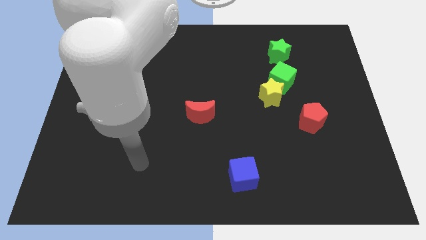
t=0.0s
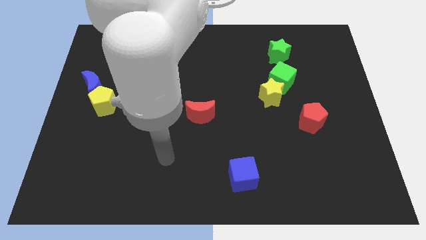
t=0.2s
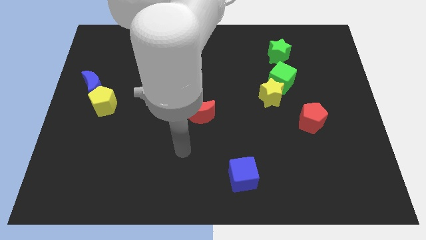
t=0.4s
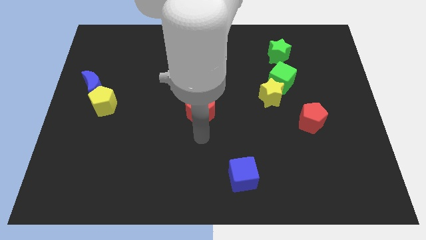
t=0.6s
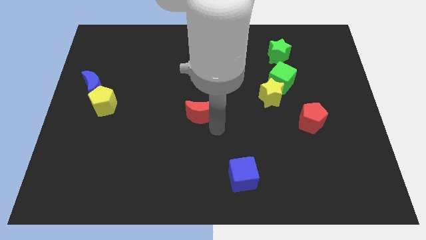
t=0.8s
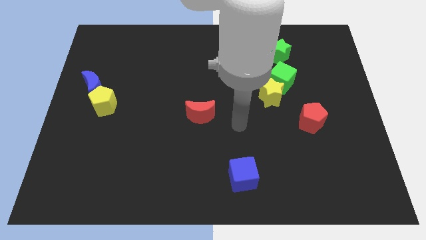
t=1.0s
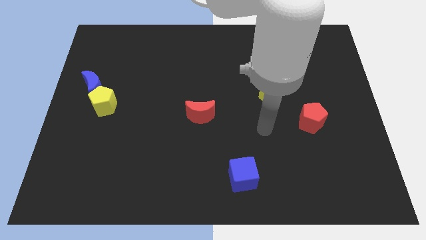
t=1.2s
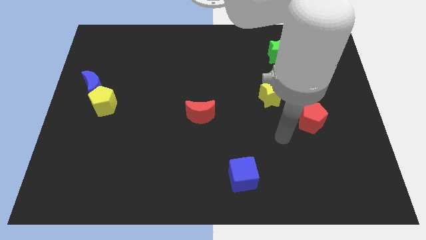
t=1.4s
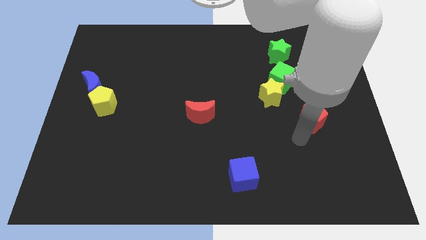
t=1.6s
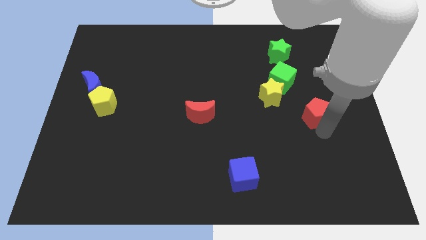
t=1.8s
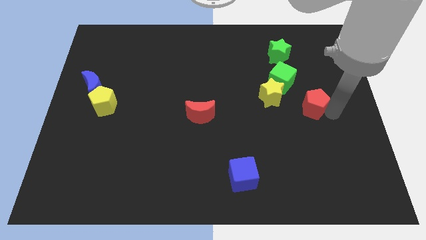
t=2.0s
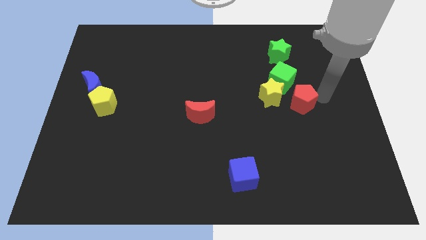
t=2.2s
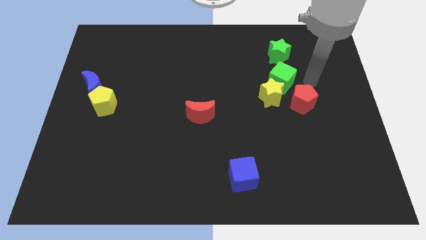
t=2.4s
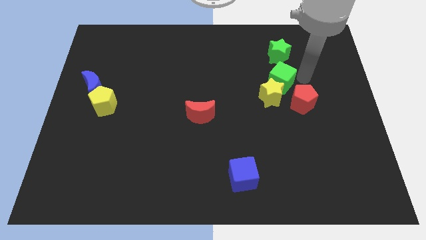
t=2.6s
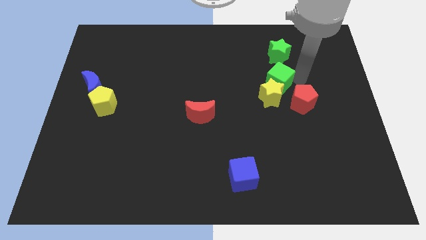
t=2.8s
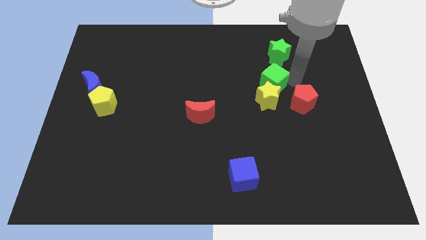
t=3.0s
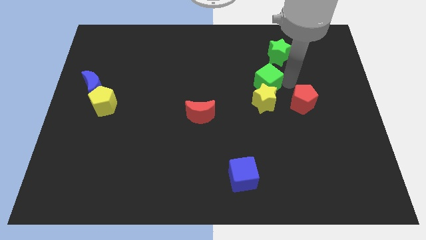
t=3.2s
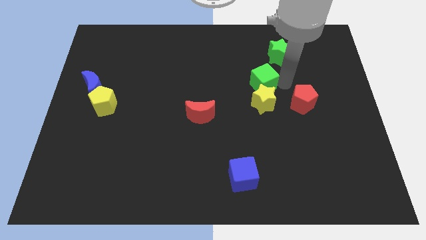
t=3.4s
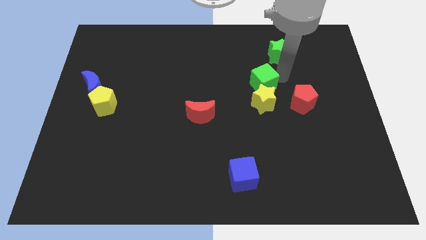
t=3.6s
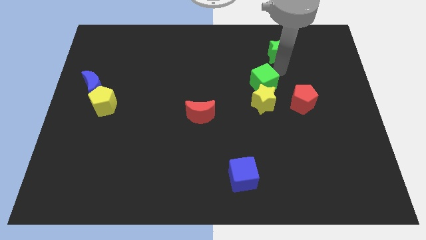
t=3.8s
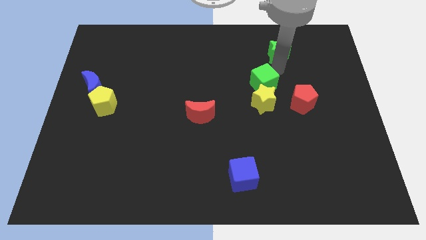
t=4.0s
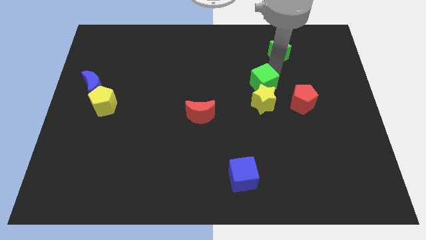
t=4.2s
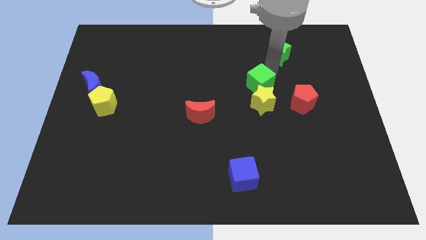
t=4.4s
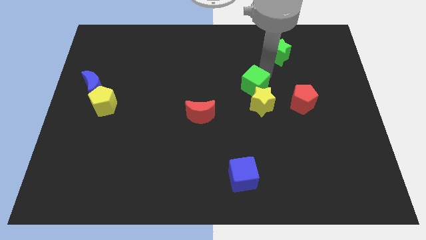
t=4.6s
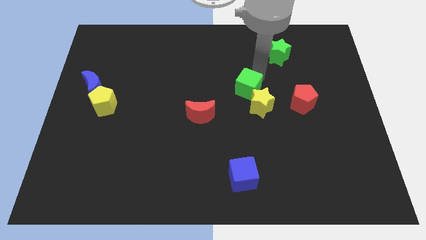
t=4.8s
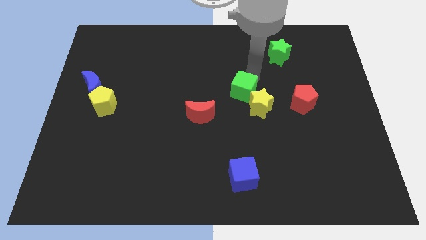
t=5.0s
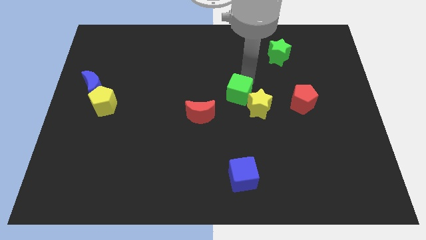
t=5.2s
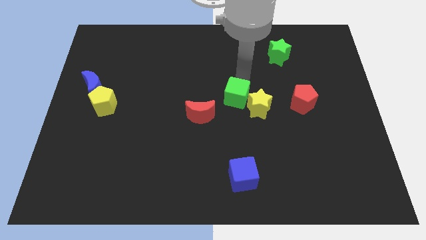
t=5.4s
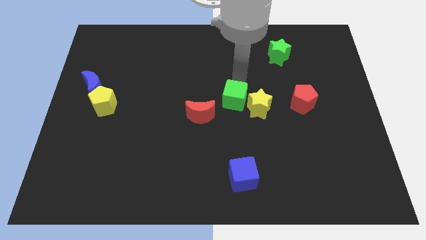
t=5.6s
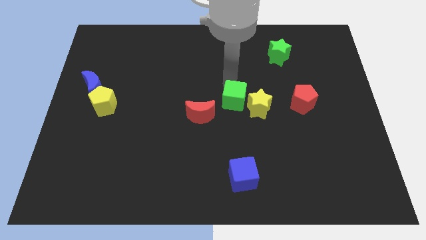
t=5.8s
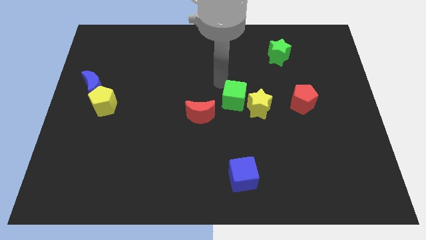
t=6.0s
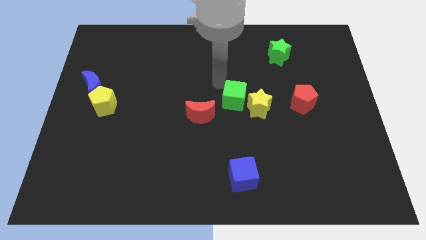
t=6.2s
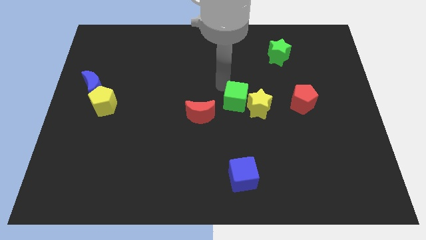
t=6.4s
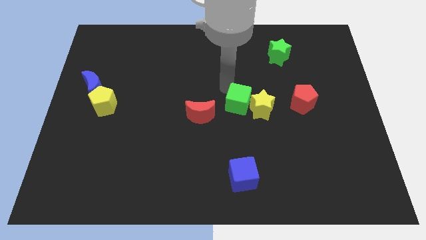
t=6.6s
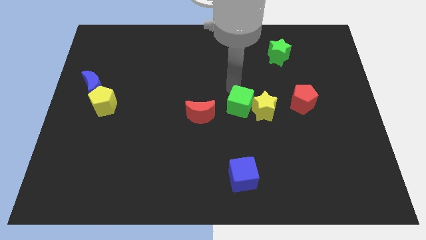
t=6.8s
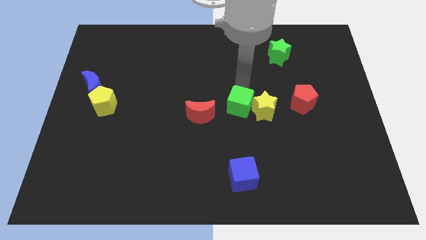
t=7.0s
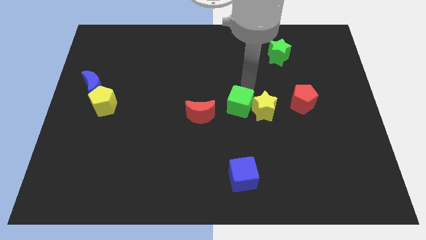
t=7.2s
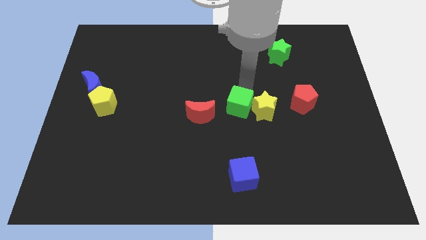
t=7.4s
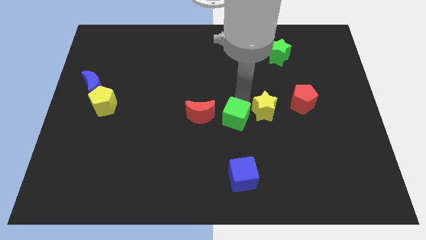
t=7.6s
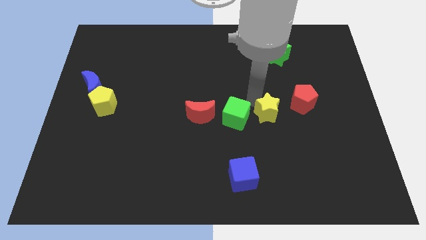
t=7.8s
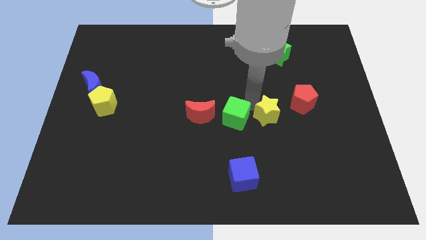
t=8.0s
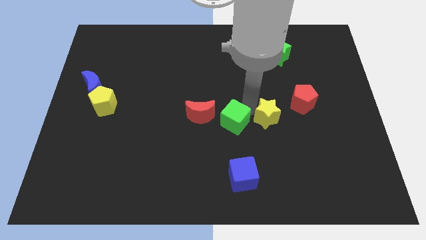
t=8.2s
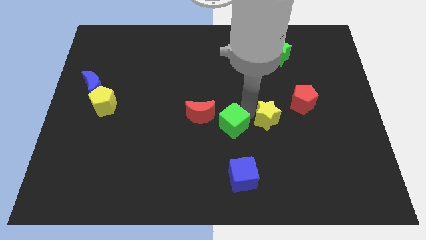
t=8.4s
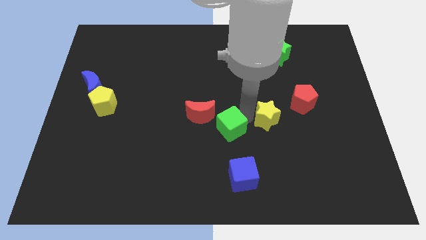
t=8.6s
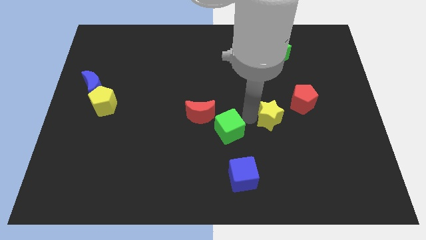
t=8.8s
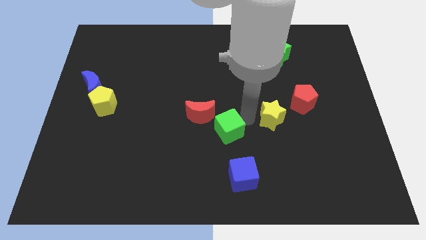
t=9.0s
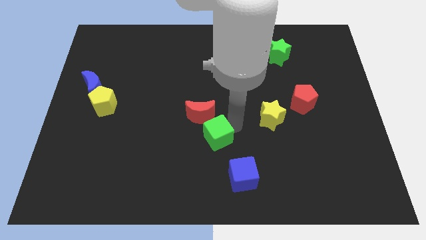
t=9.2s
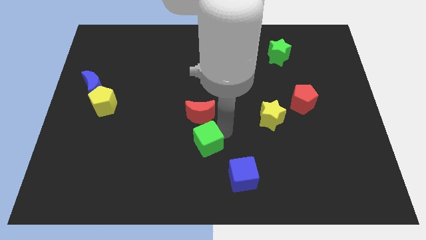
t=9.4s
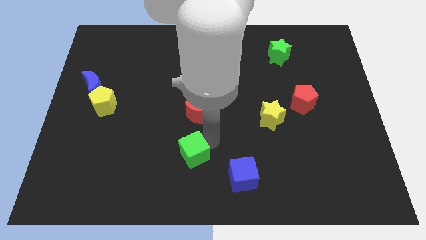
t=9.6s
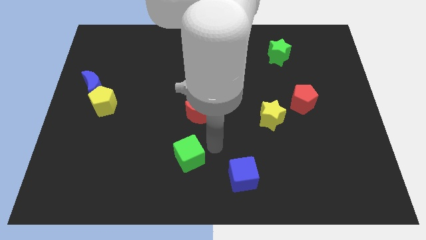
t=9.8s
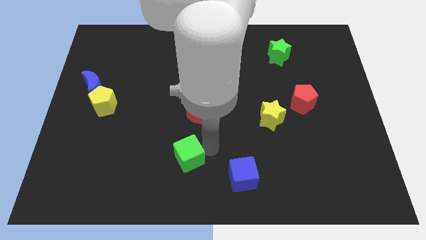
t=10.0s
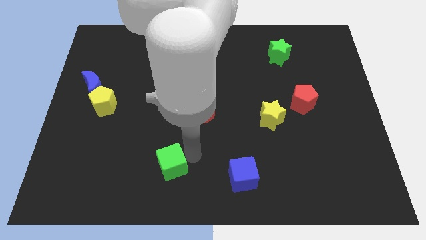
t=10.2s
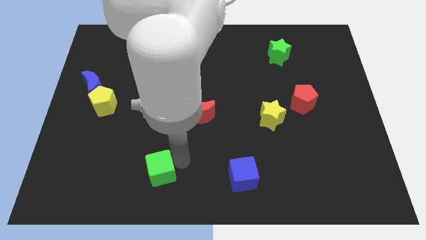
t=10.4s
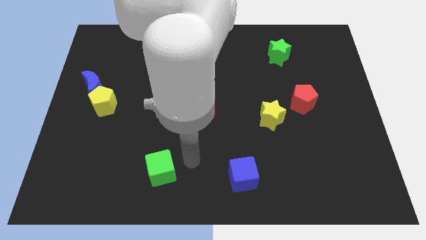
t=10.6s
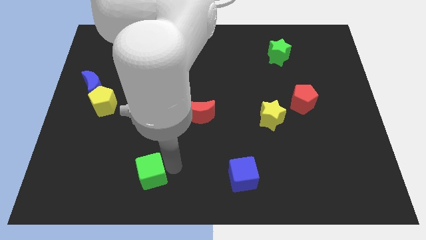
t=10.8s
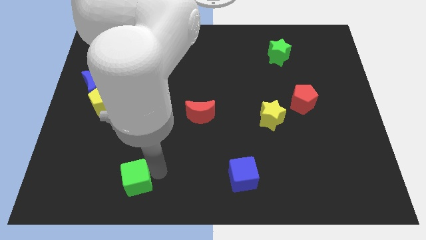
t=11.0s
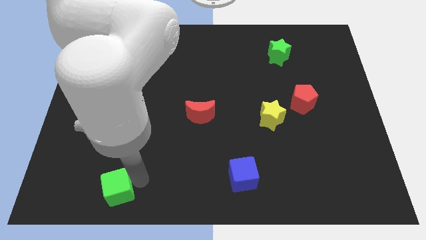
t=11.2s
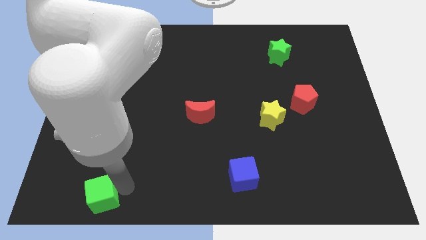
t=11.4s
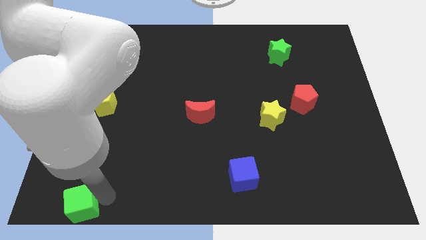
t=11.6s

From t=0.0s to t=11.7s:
slide the green cube to the bottom left of the board
